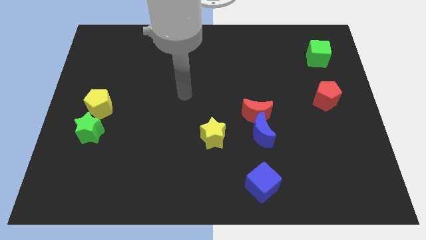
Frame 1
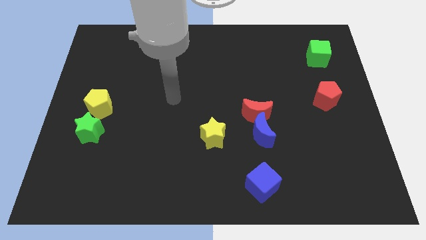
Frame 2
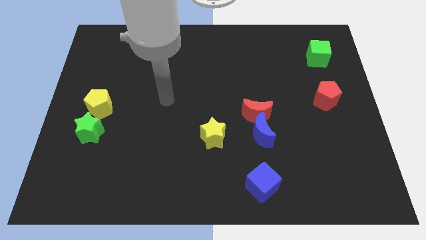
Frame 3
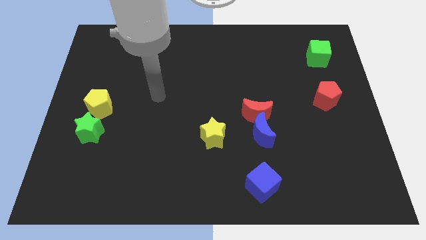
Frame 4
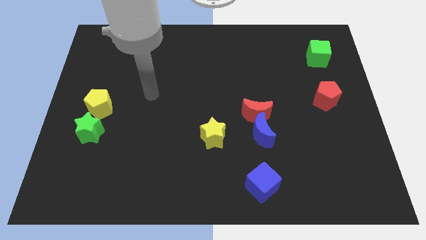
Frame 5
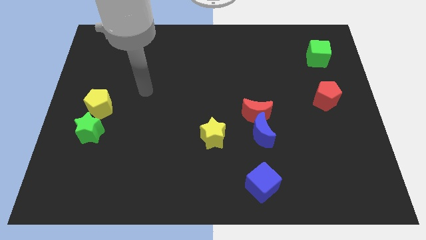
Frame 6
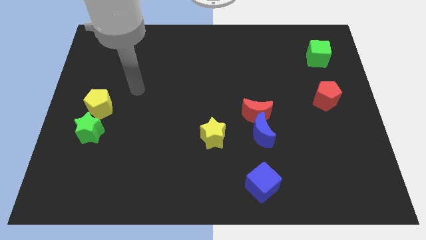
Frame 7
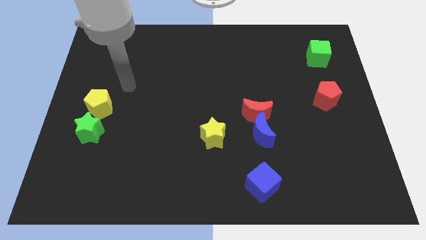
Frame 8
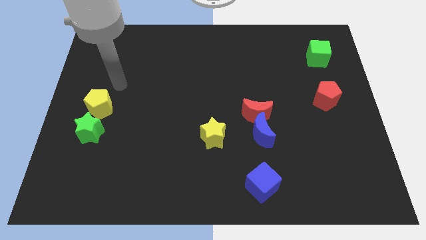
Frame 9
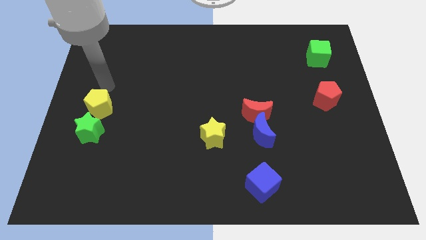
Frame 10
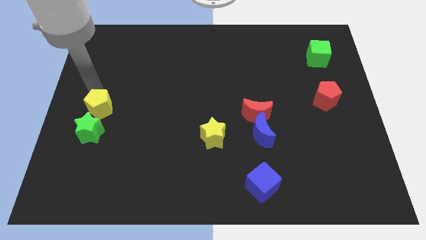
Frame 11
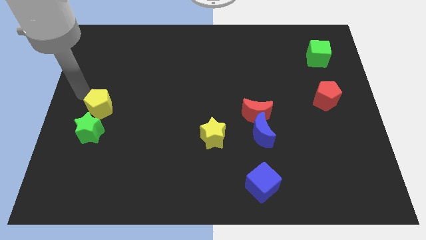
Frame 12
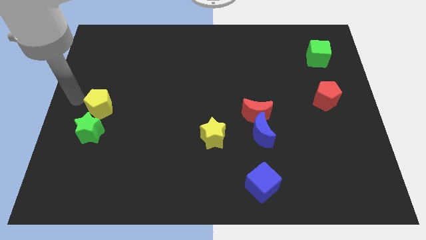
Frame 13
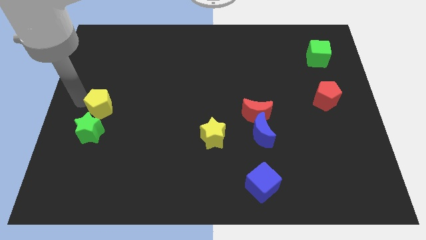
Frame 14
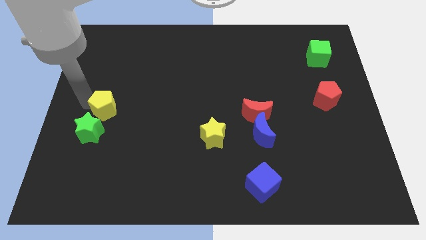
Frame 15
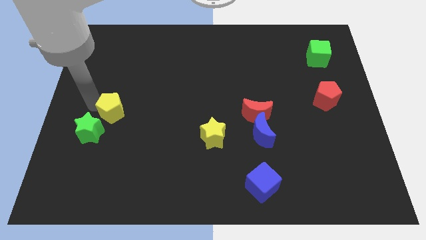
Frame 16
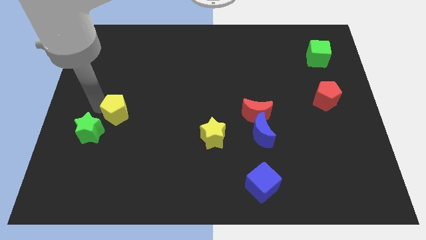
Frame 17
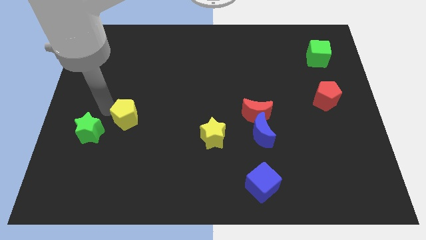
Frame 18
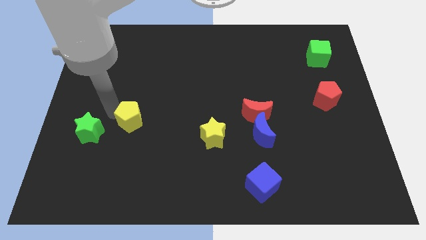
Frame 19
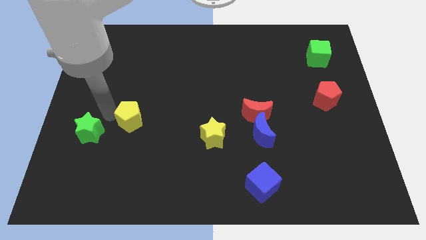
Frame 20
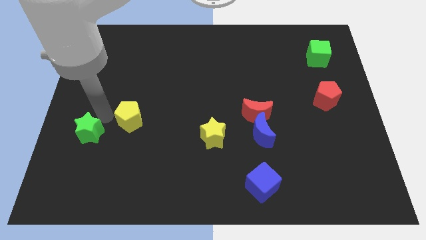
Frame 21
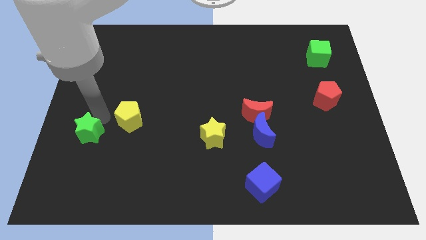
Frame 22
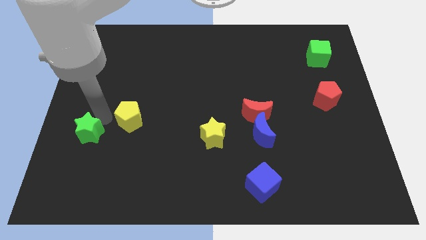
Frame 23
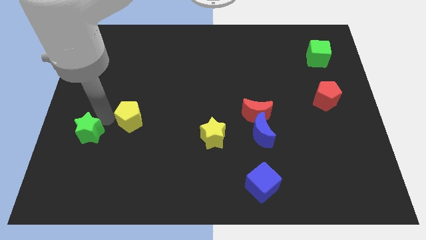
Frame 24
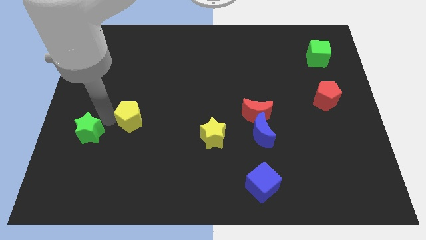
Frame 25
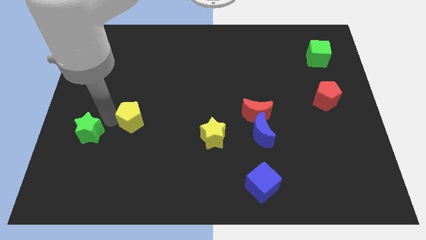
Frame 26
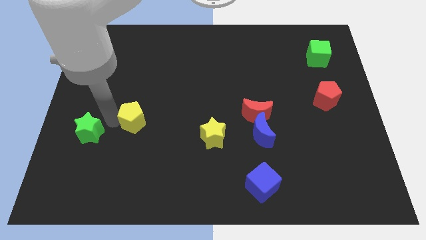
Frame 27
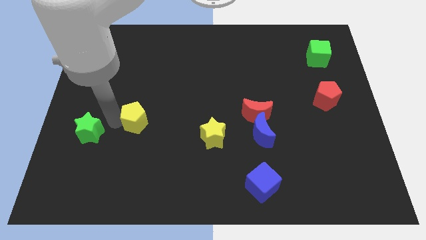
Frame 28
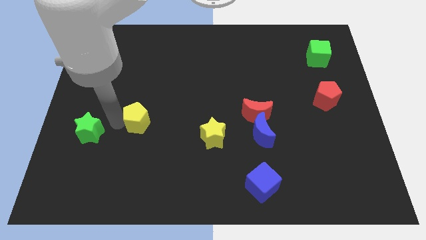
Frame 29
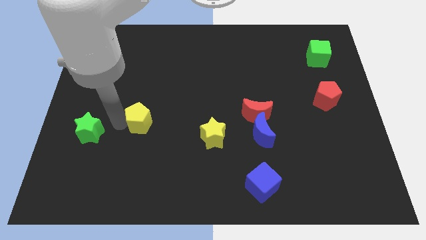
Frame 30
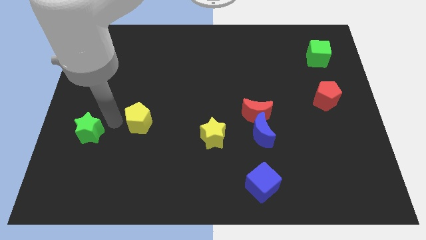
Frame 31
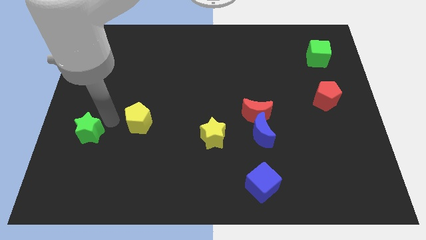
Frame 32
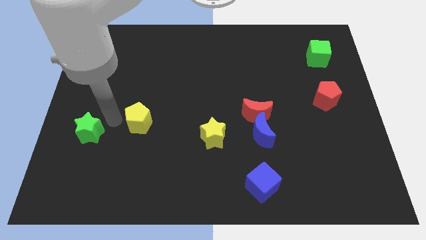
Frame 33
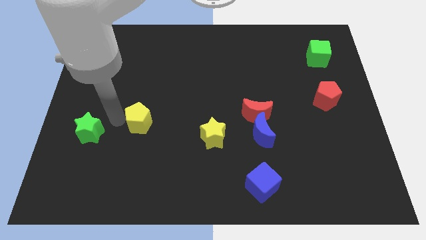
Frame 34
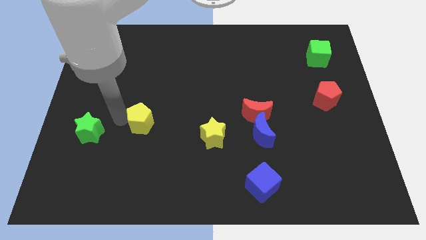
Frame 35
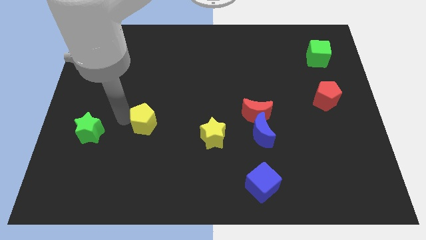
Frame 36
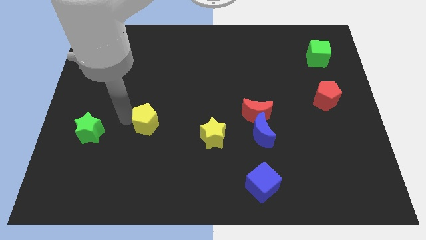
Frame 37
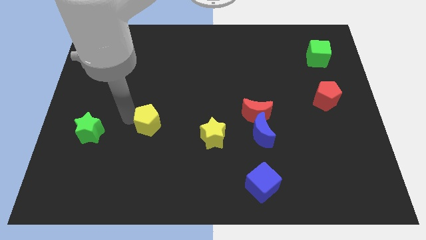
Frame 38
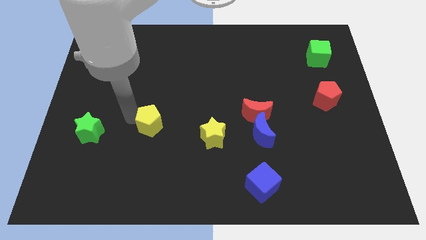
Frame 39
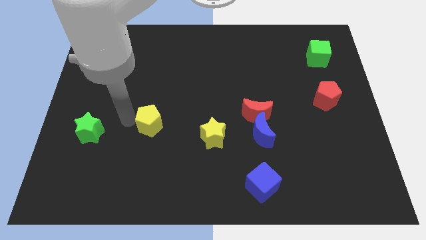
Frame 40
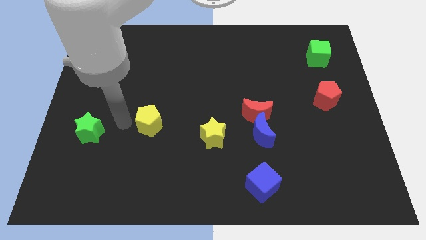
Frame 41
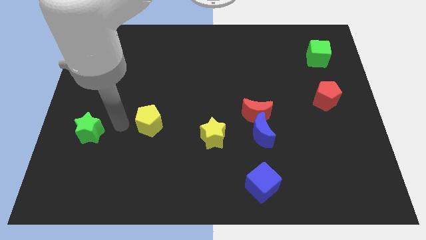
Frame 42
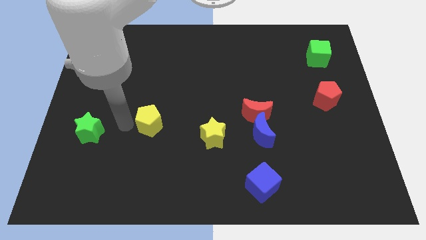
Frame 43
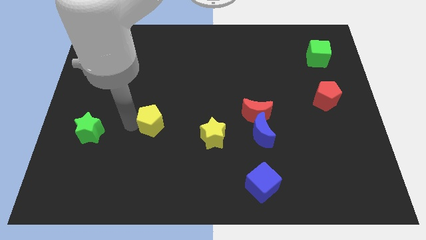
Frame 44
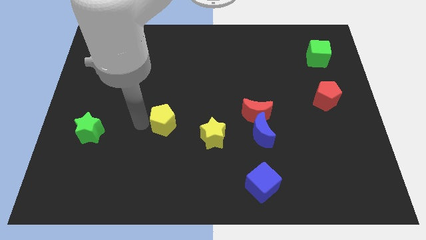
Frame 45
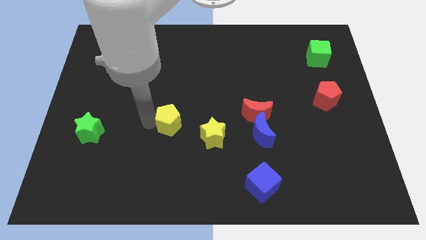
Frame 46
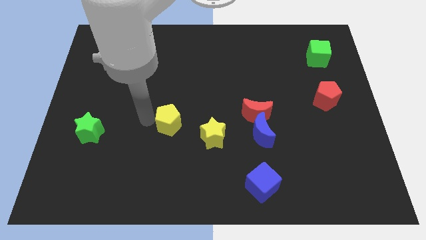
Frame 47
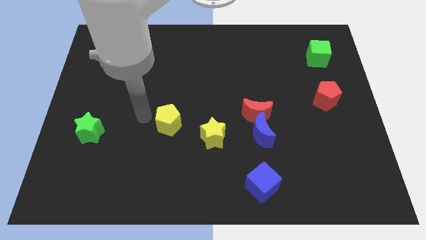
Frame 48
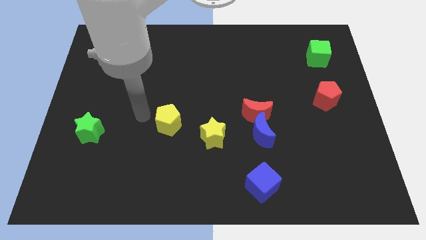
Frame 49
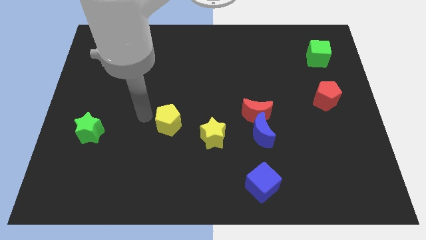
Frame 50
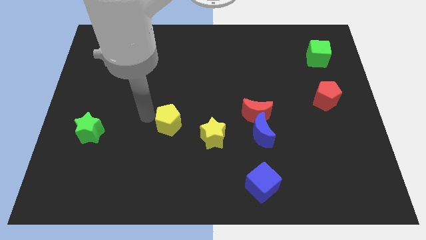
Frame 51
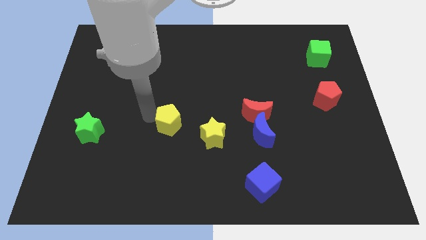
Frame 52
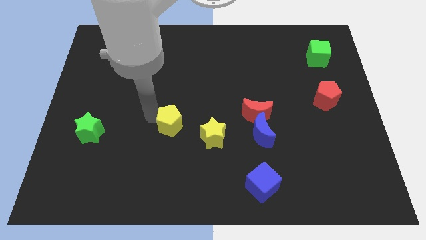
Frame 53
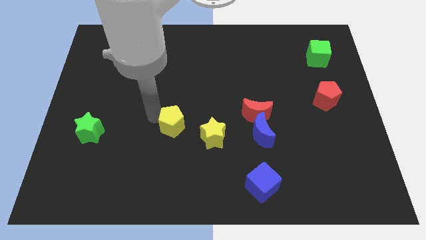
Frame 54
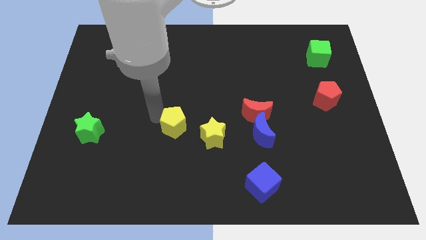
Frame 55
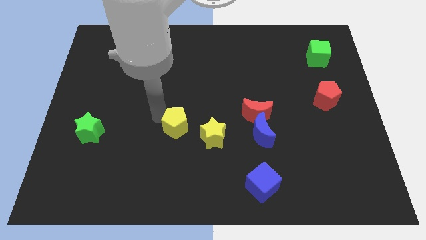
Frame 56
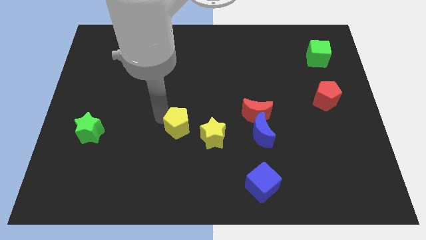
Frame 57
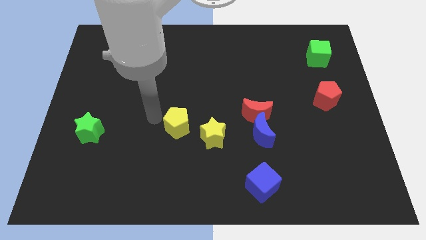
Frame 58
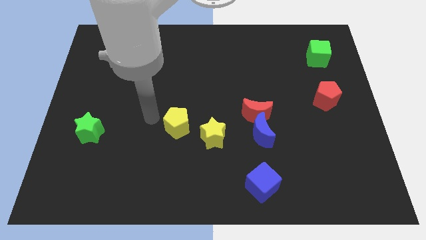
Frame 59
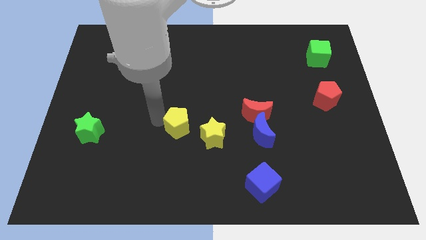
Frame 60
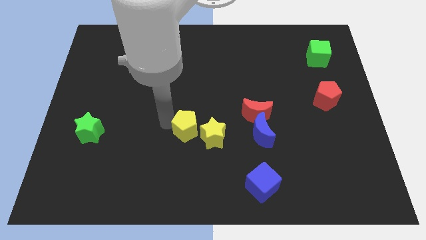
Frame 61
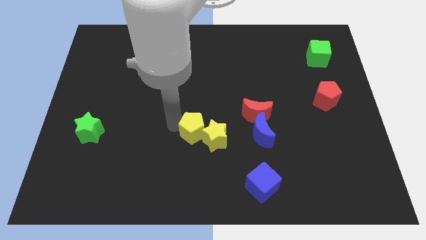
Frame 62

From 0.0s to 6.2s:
move the yellow pentagon to the yellow star

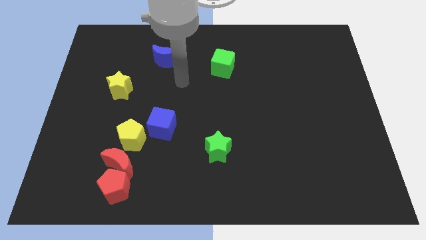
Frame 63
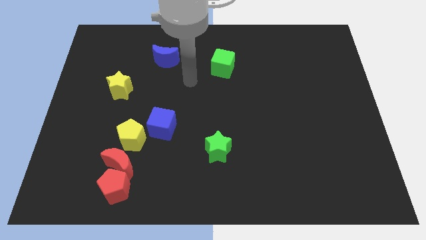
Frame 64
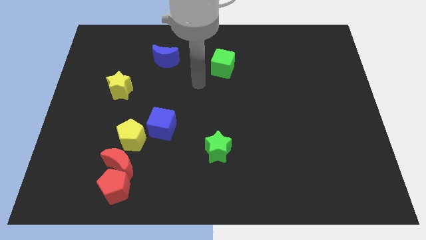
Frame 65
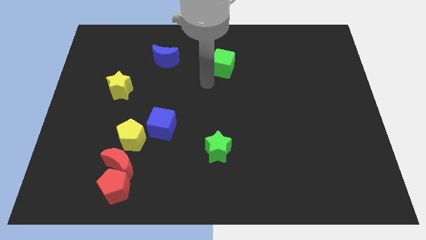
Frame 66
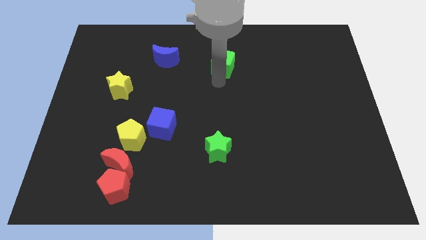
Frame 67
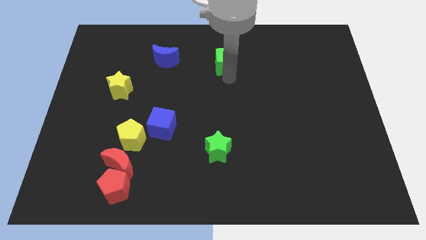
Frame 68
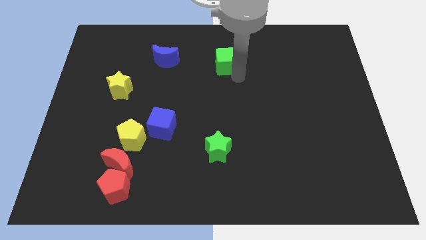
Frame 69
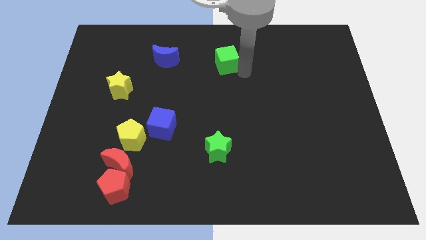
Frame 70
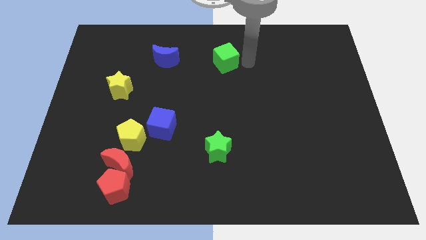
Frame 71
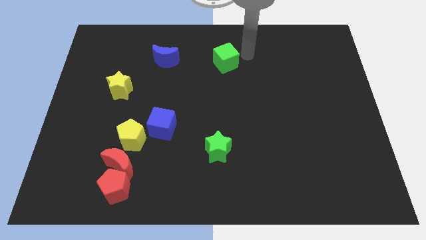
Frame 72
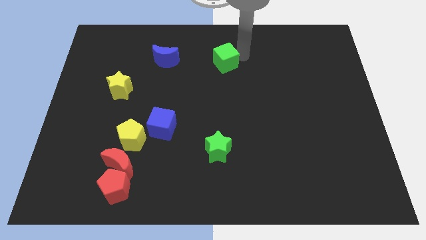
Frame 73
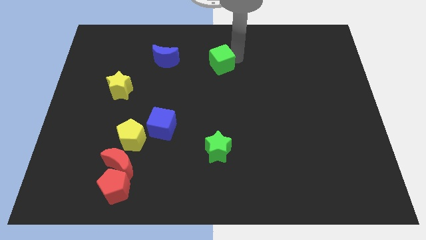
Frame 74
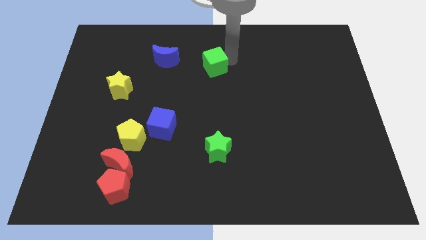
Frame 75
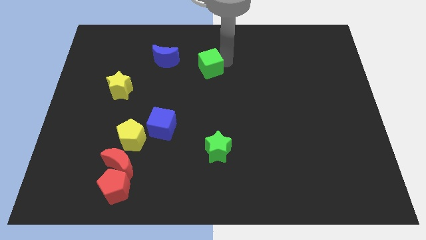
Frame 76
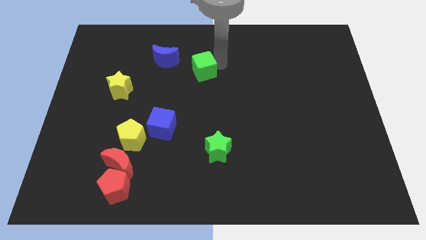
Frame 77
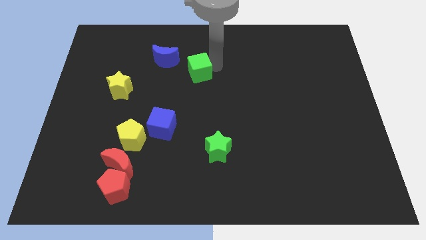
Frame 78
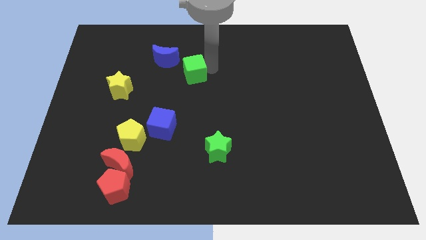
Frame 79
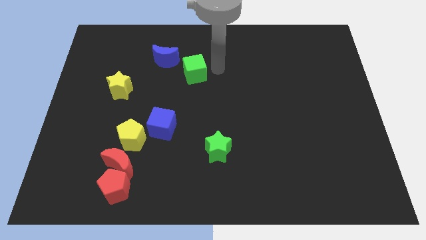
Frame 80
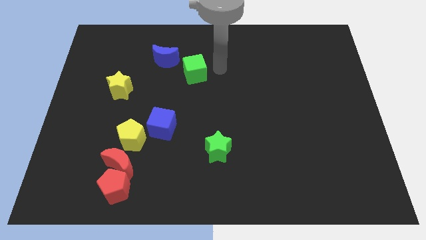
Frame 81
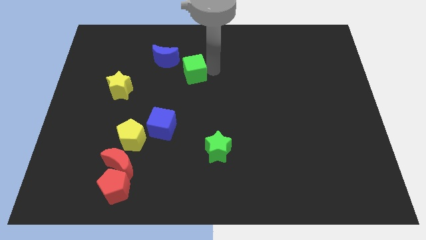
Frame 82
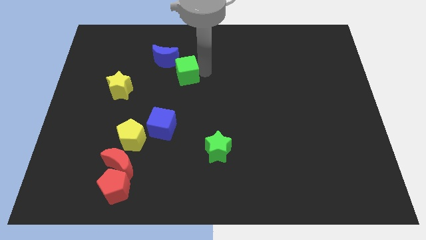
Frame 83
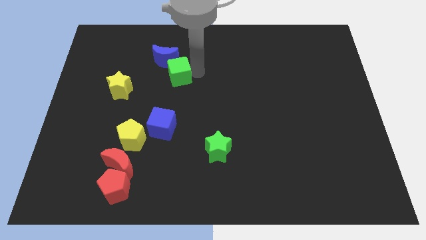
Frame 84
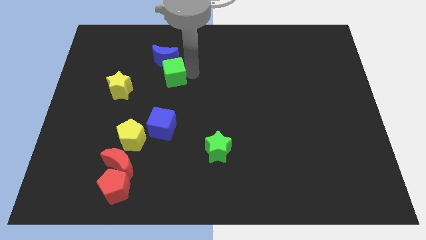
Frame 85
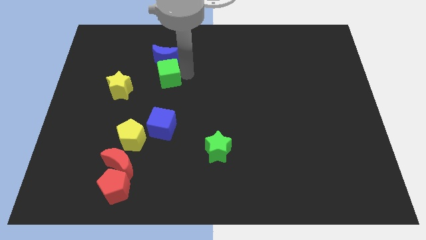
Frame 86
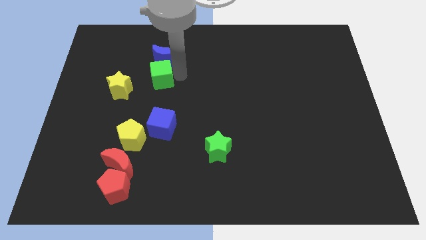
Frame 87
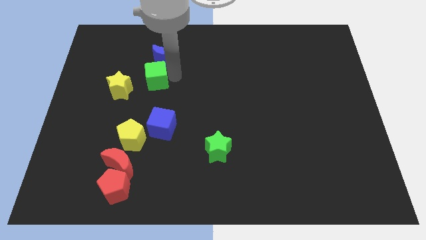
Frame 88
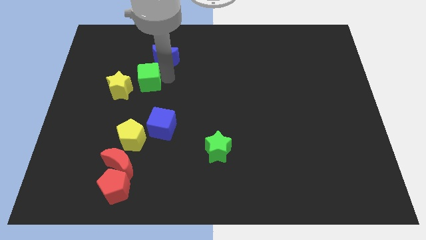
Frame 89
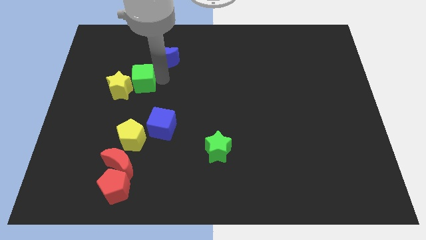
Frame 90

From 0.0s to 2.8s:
put the green cube next to the yellow star
